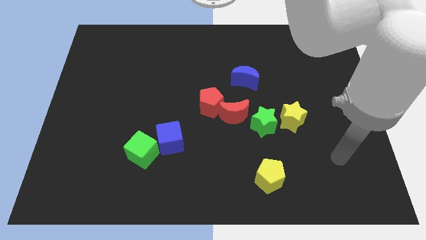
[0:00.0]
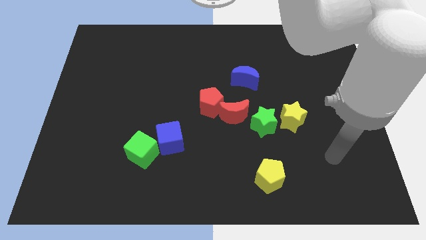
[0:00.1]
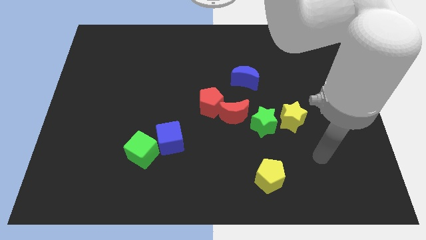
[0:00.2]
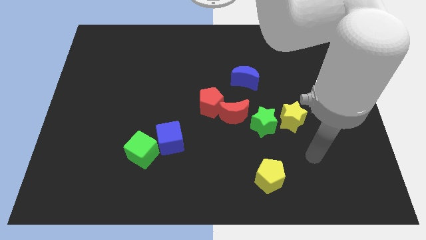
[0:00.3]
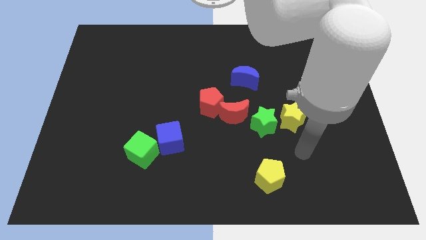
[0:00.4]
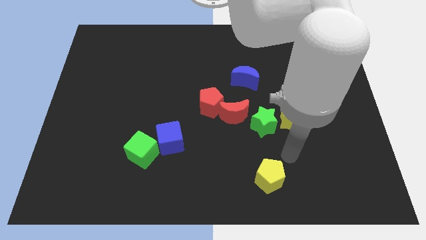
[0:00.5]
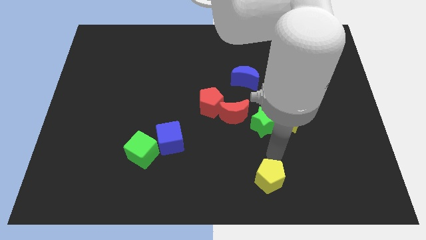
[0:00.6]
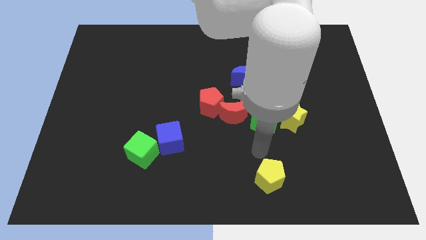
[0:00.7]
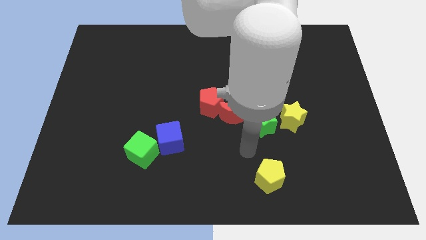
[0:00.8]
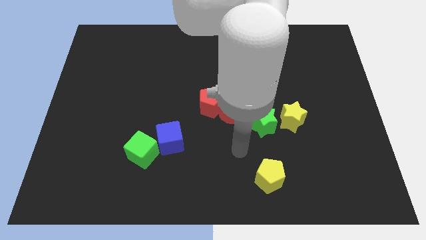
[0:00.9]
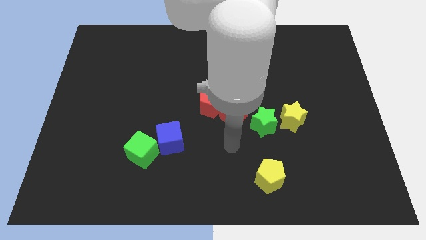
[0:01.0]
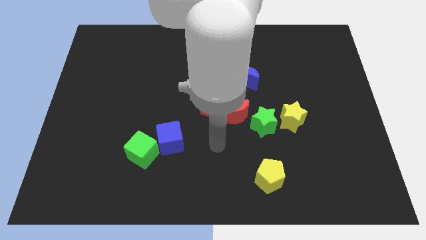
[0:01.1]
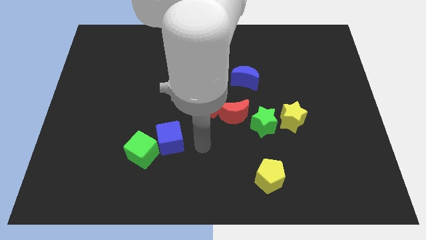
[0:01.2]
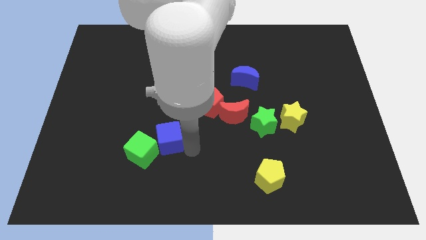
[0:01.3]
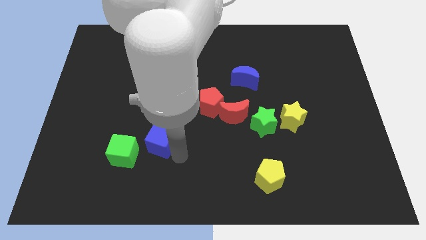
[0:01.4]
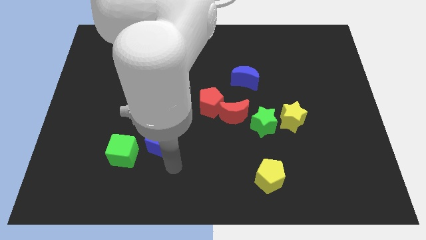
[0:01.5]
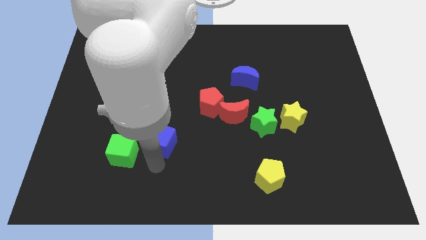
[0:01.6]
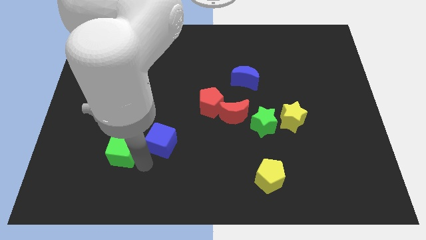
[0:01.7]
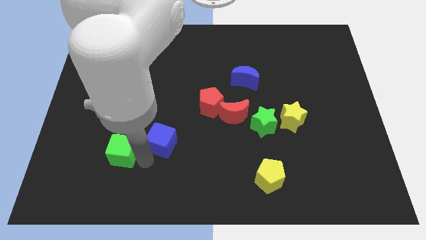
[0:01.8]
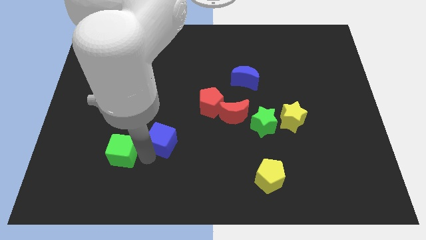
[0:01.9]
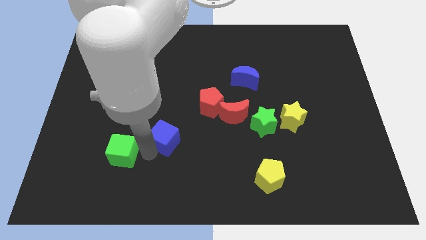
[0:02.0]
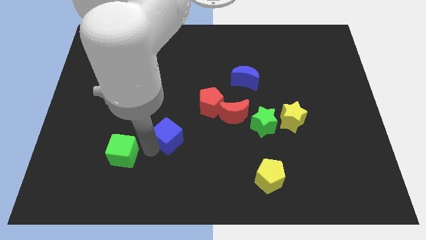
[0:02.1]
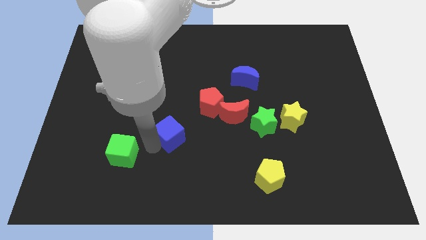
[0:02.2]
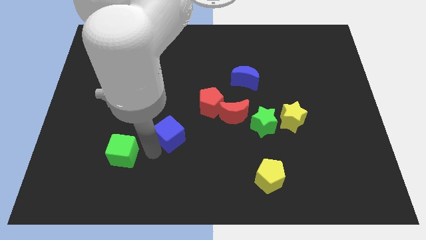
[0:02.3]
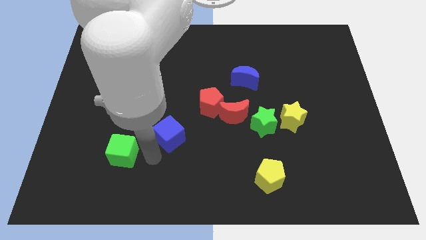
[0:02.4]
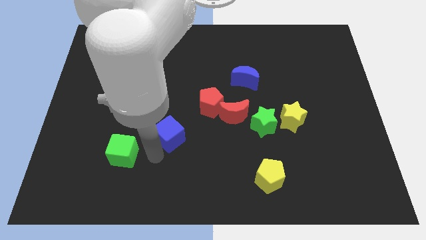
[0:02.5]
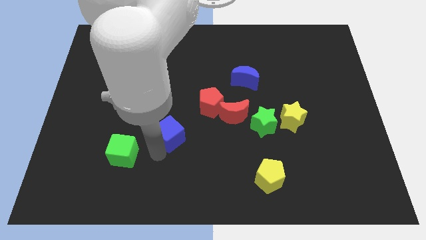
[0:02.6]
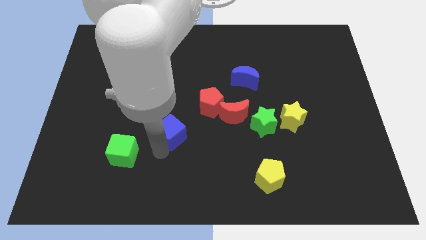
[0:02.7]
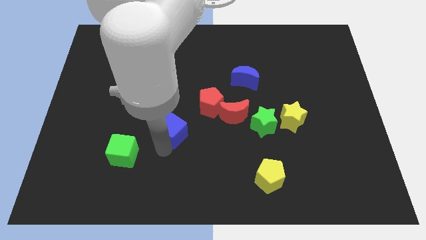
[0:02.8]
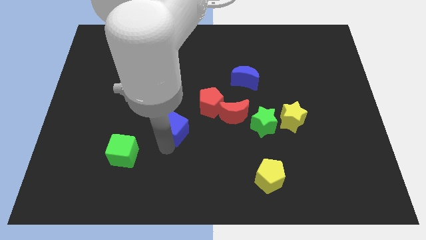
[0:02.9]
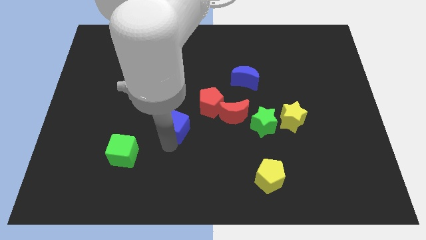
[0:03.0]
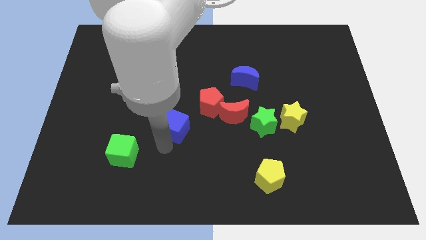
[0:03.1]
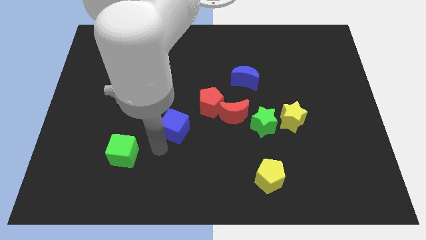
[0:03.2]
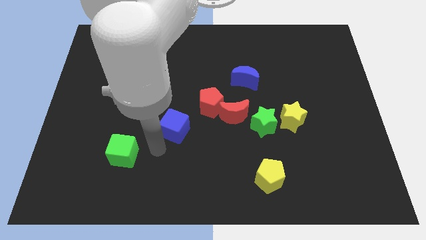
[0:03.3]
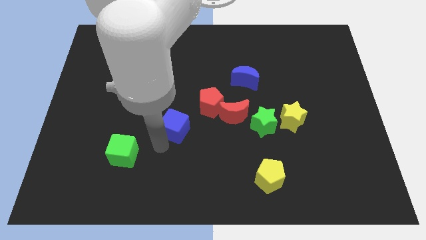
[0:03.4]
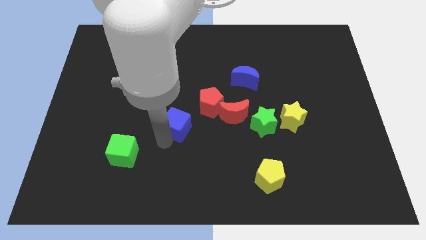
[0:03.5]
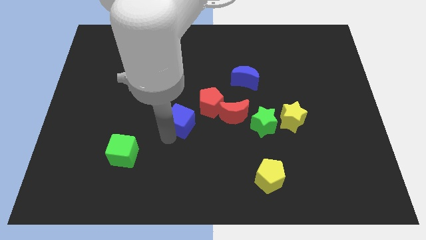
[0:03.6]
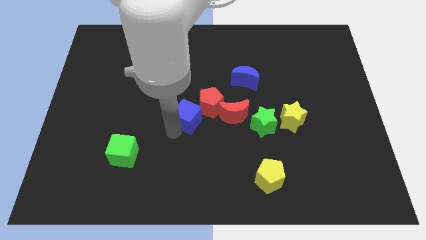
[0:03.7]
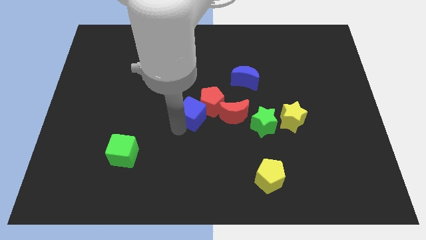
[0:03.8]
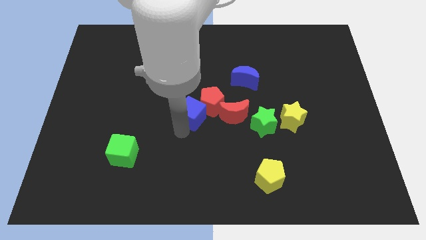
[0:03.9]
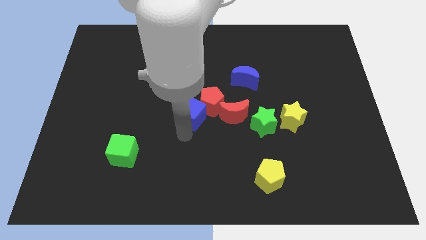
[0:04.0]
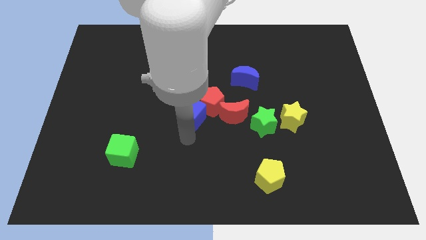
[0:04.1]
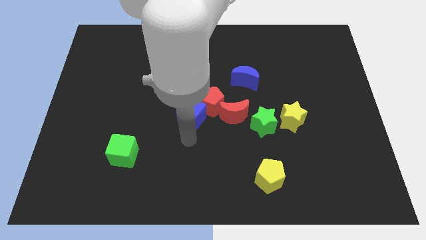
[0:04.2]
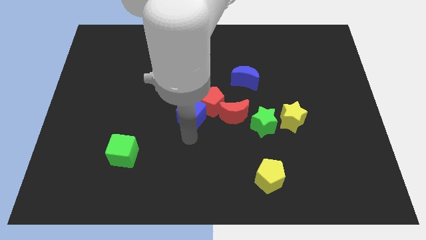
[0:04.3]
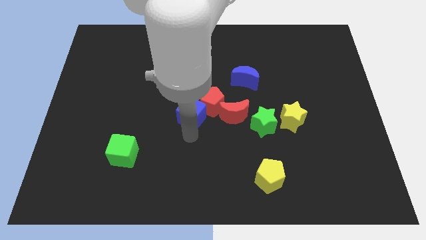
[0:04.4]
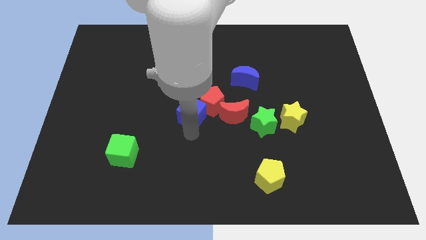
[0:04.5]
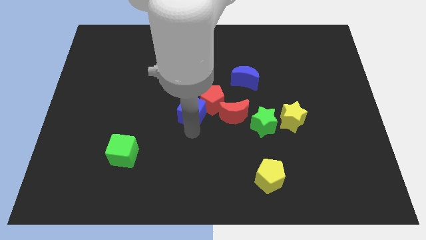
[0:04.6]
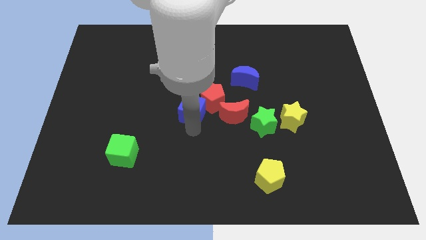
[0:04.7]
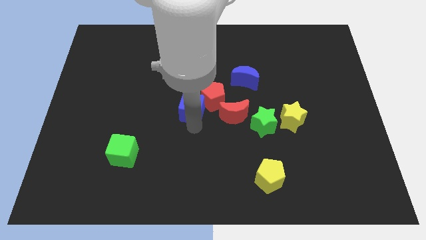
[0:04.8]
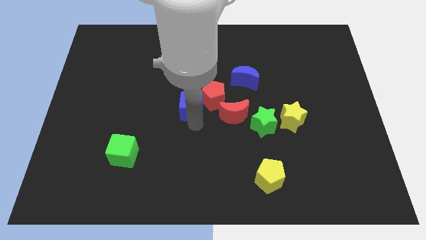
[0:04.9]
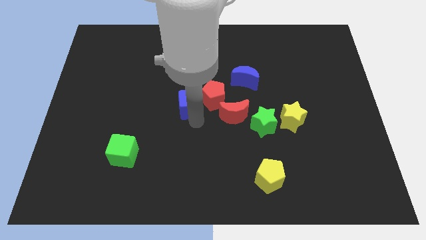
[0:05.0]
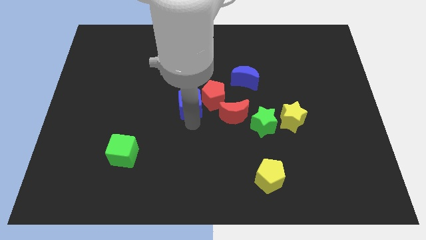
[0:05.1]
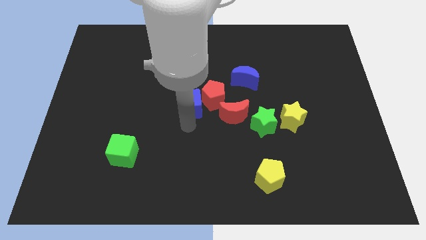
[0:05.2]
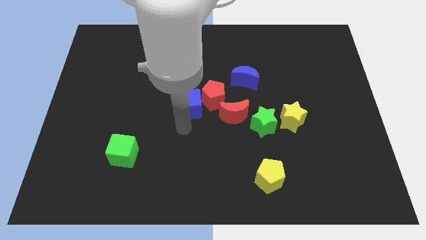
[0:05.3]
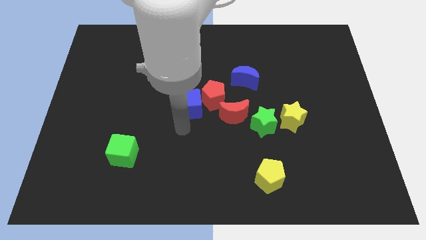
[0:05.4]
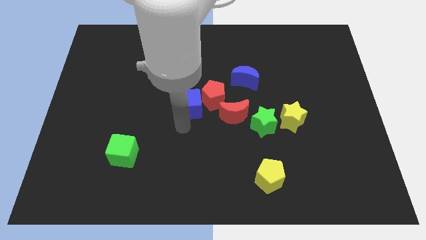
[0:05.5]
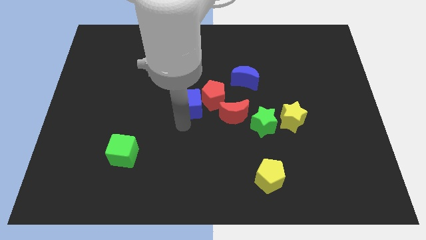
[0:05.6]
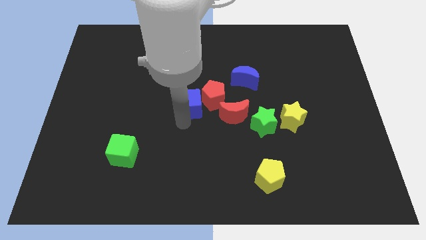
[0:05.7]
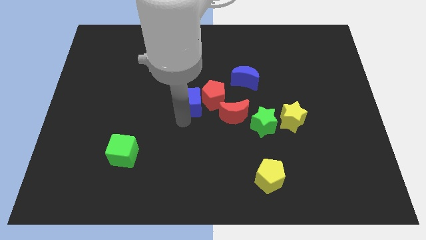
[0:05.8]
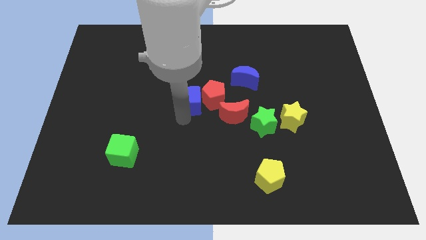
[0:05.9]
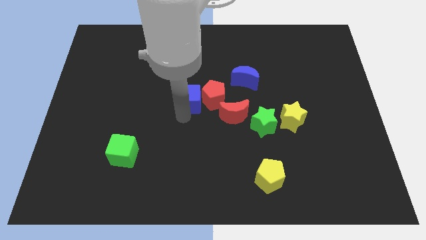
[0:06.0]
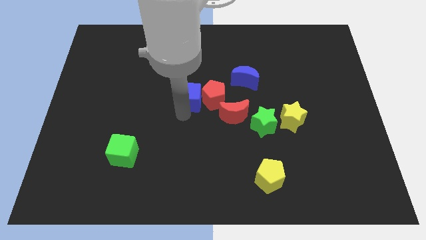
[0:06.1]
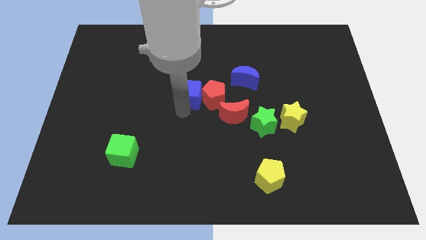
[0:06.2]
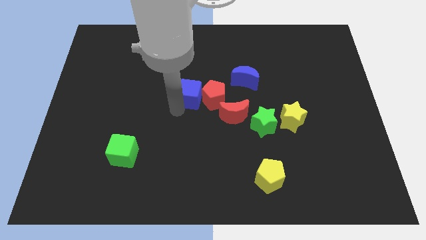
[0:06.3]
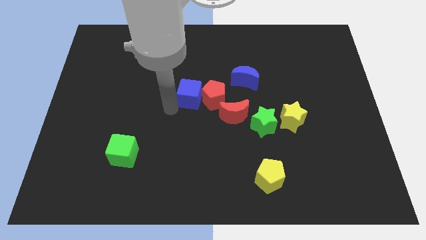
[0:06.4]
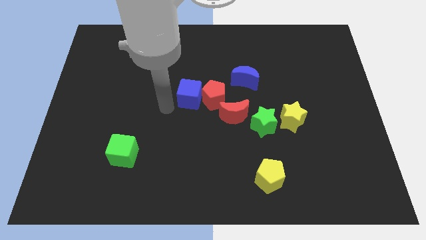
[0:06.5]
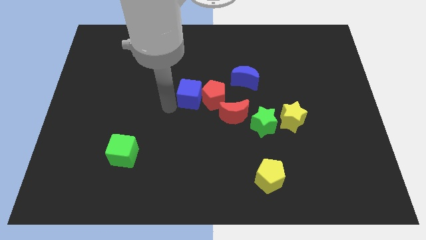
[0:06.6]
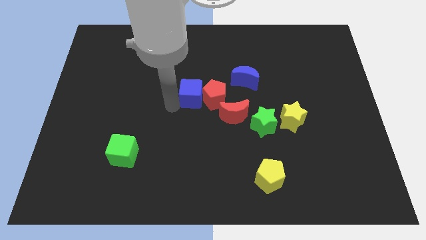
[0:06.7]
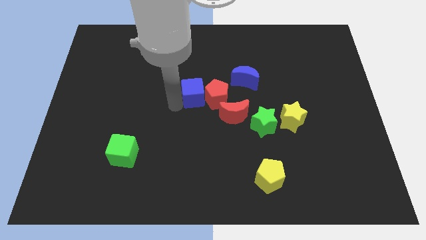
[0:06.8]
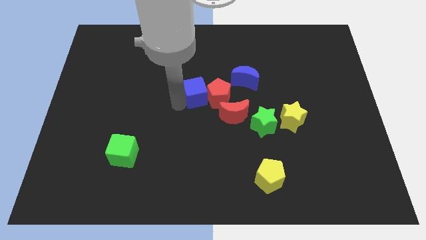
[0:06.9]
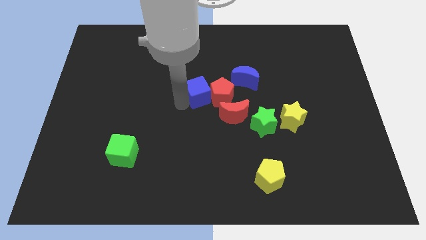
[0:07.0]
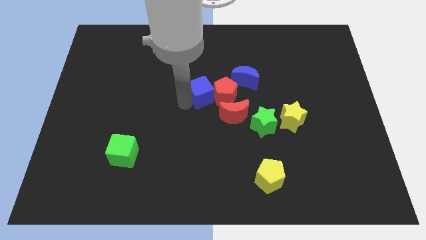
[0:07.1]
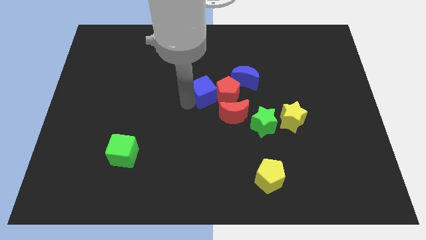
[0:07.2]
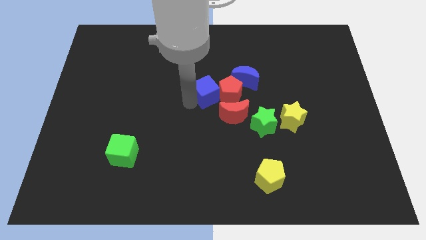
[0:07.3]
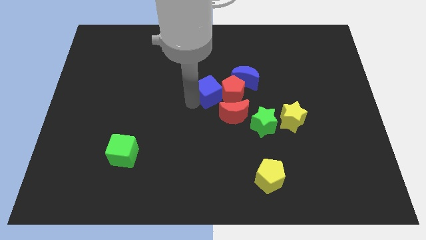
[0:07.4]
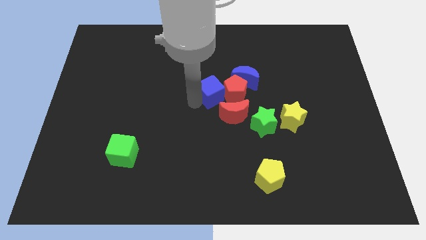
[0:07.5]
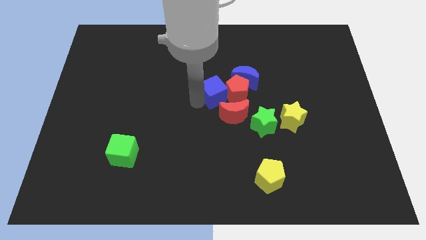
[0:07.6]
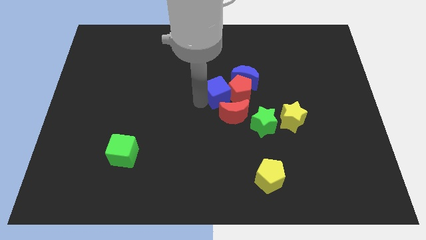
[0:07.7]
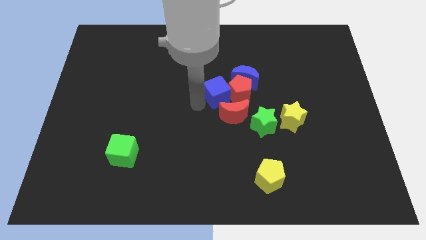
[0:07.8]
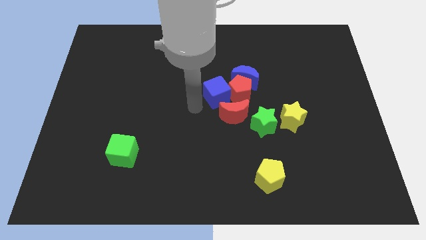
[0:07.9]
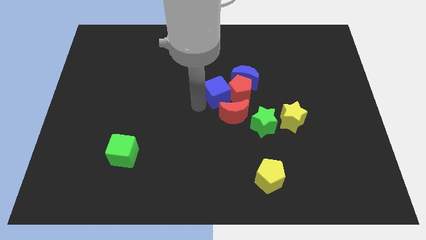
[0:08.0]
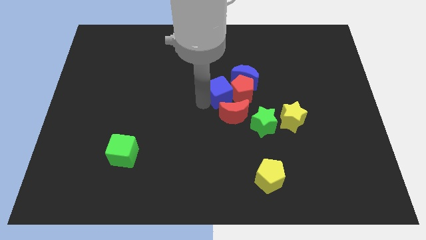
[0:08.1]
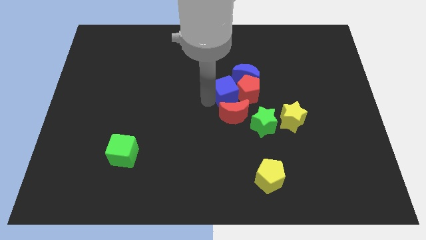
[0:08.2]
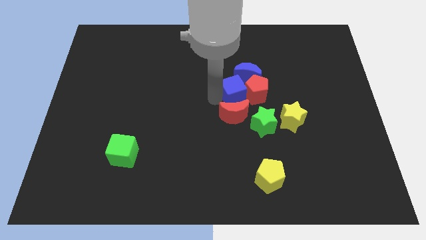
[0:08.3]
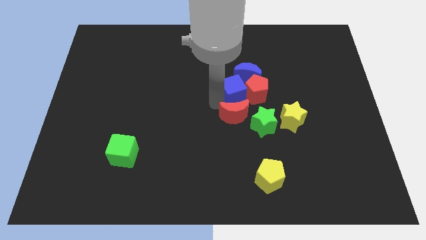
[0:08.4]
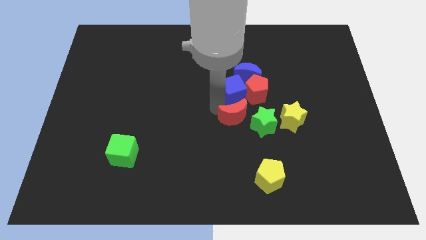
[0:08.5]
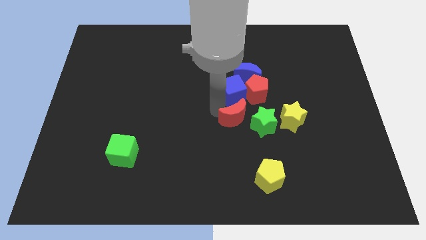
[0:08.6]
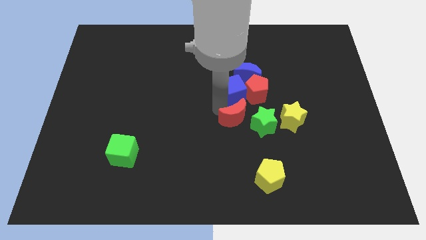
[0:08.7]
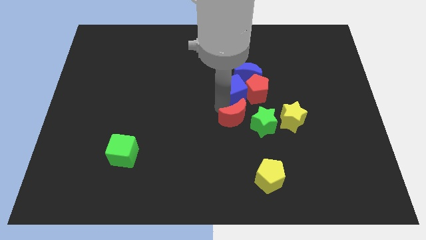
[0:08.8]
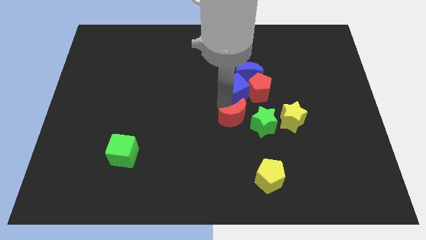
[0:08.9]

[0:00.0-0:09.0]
move the blue cube close to the blue moon
